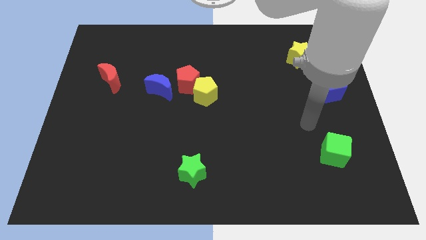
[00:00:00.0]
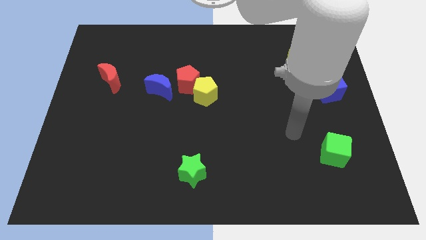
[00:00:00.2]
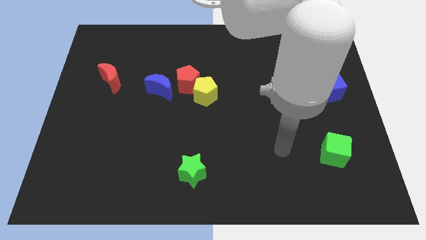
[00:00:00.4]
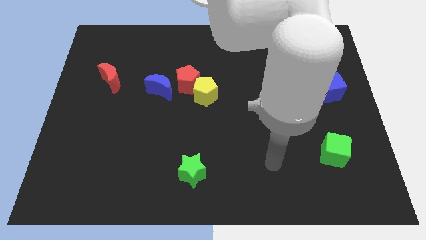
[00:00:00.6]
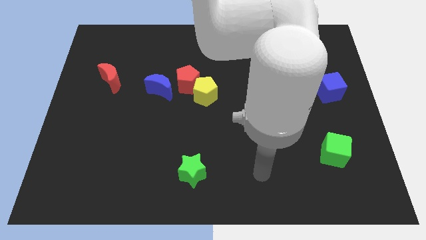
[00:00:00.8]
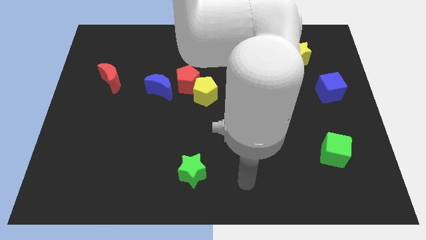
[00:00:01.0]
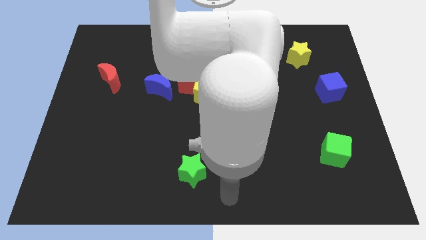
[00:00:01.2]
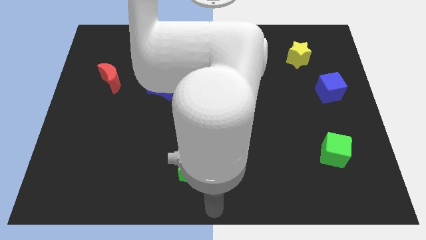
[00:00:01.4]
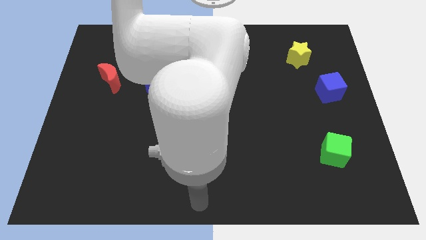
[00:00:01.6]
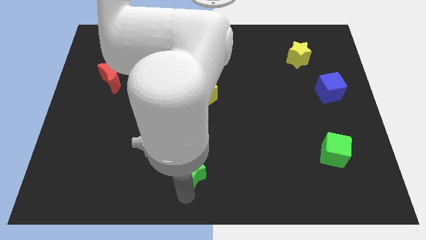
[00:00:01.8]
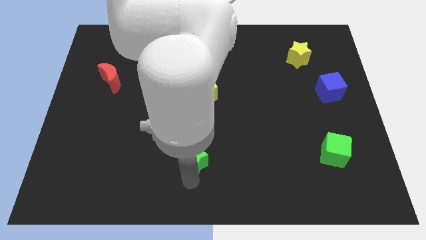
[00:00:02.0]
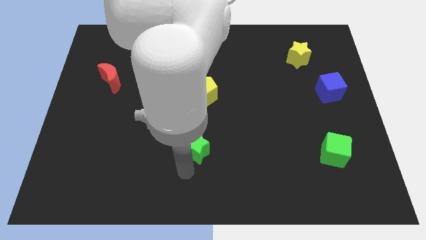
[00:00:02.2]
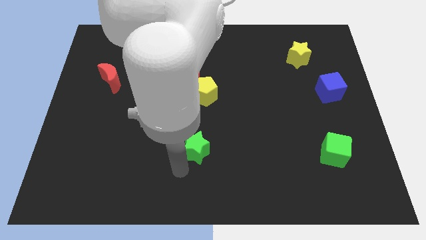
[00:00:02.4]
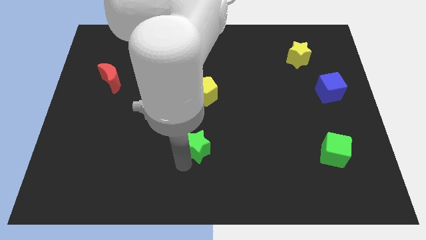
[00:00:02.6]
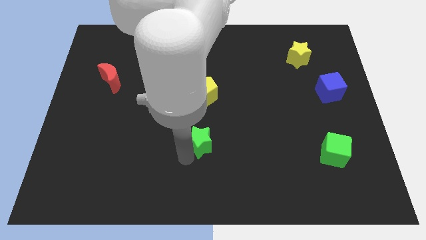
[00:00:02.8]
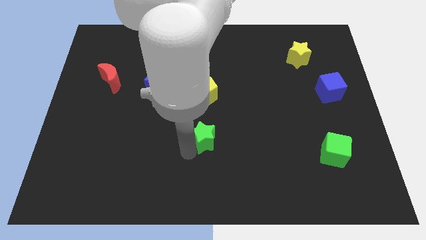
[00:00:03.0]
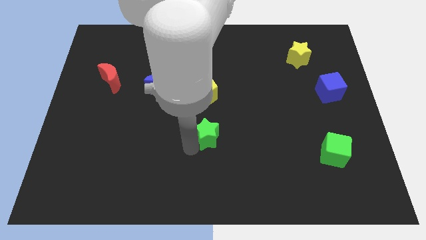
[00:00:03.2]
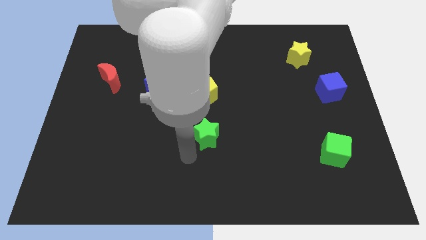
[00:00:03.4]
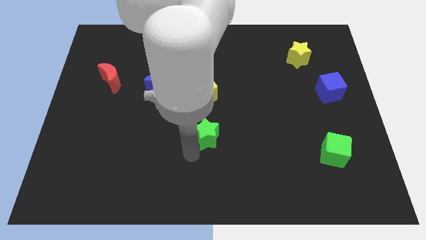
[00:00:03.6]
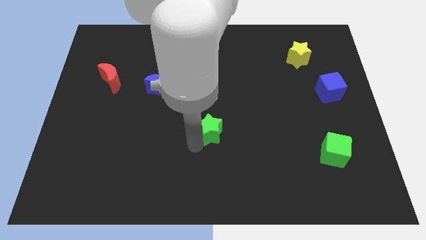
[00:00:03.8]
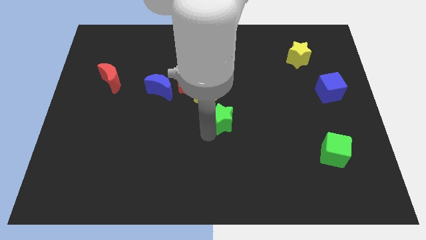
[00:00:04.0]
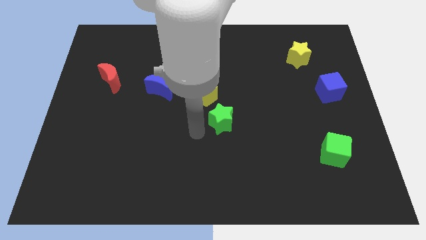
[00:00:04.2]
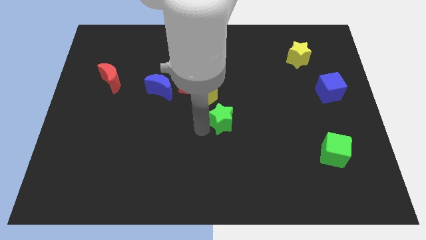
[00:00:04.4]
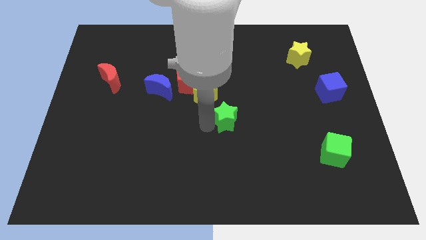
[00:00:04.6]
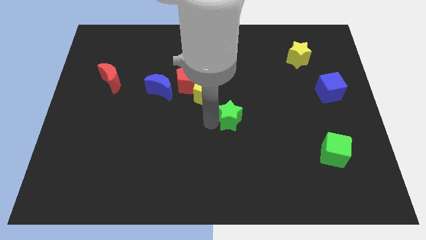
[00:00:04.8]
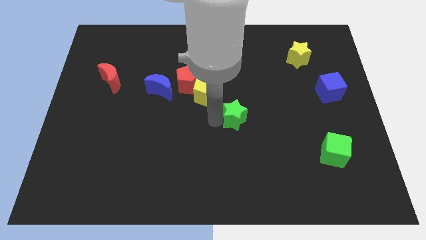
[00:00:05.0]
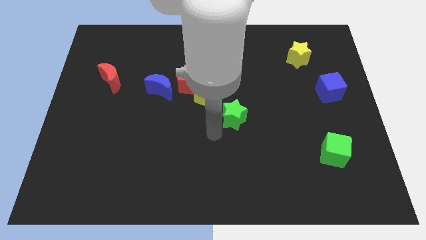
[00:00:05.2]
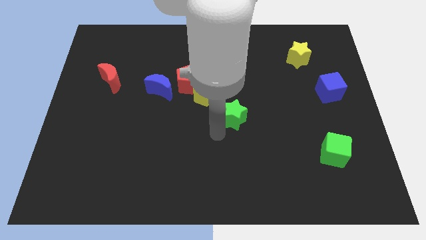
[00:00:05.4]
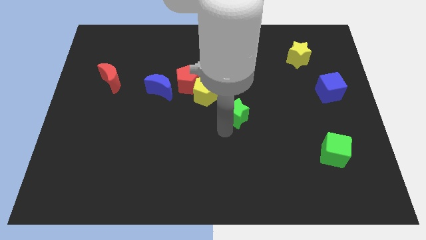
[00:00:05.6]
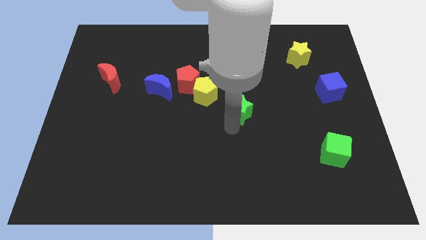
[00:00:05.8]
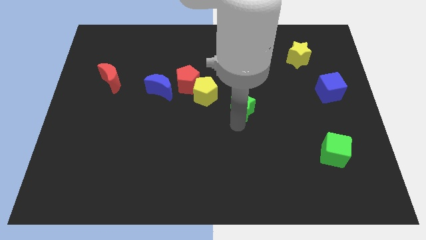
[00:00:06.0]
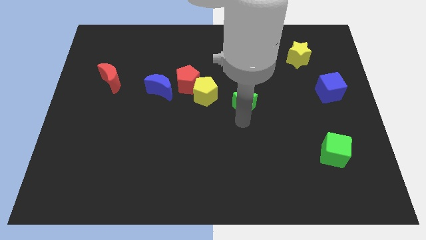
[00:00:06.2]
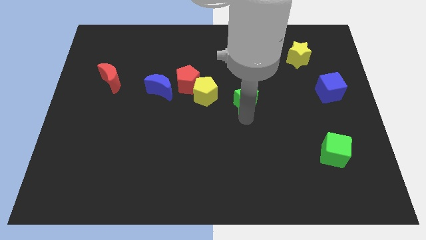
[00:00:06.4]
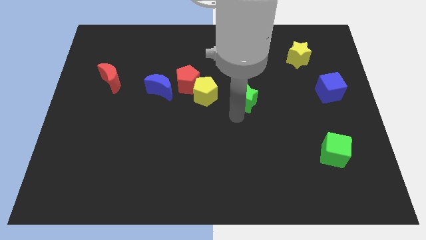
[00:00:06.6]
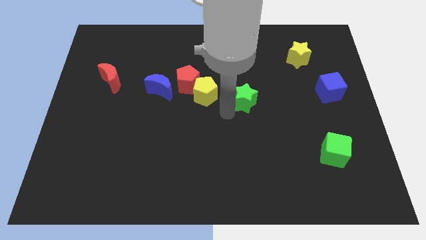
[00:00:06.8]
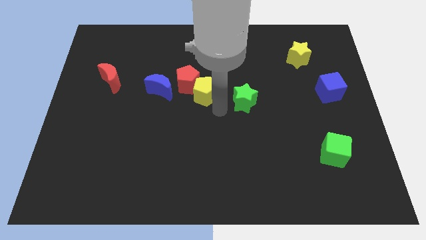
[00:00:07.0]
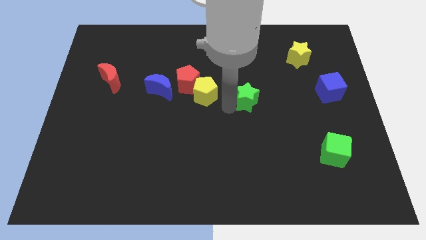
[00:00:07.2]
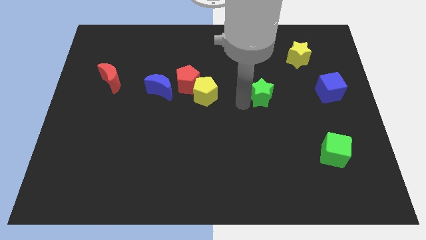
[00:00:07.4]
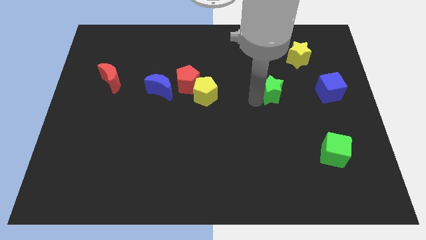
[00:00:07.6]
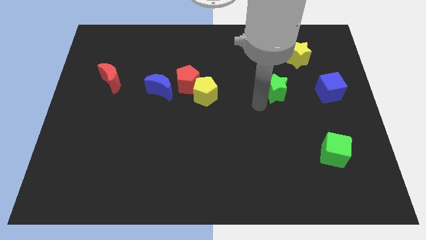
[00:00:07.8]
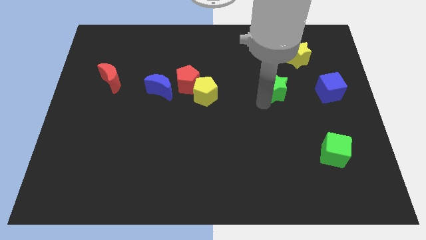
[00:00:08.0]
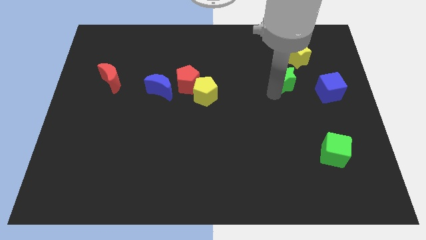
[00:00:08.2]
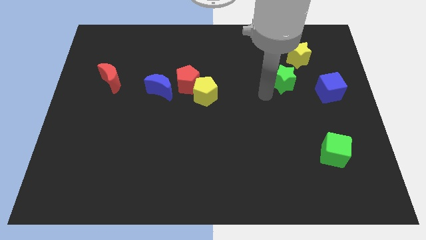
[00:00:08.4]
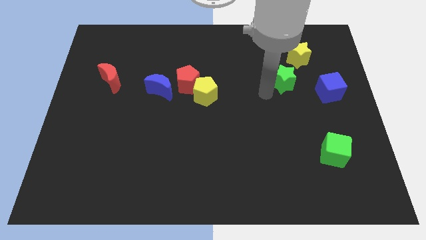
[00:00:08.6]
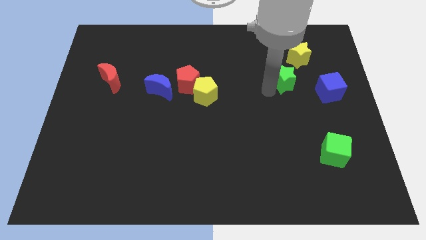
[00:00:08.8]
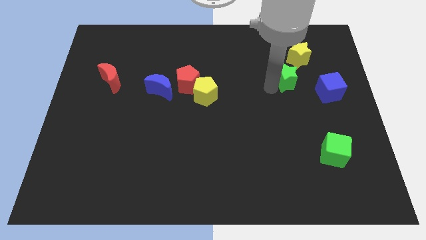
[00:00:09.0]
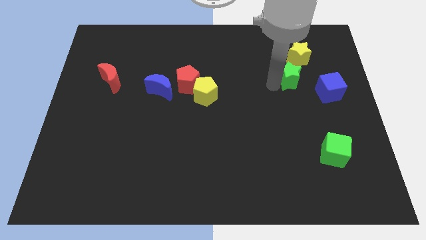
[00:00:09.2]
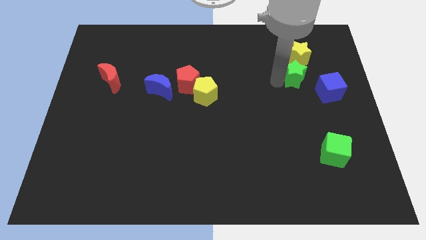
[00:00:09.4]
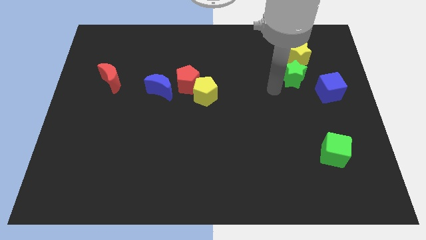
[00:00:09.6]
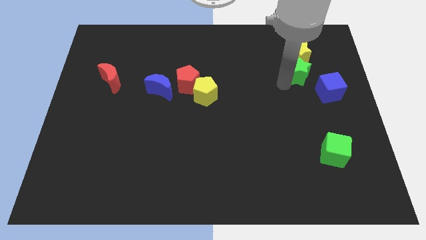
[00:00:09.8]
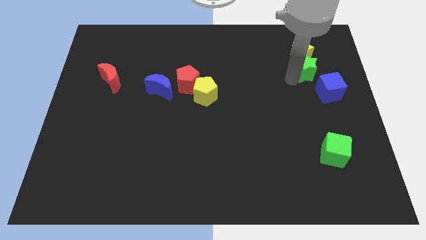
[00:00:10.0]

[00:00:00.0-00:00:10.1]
put the green star to the top side of the blue cube

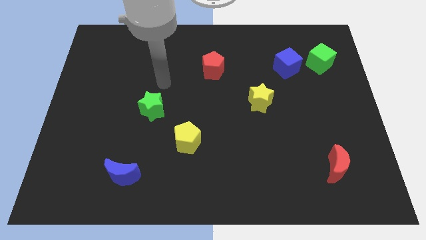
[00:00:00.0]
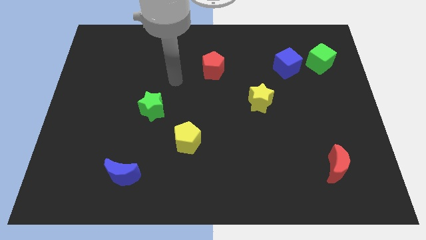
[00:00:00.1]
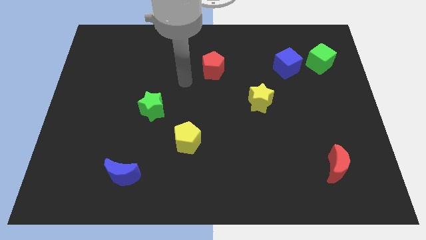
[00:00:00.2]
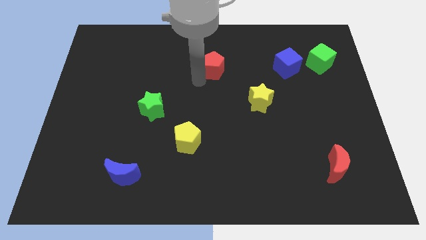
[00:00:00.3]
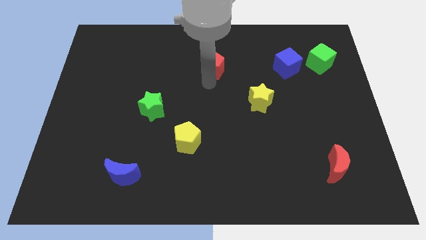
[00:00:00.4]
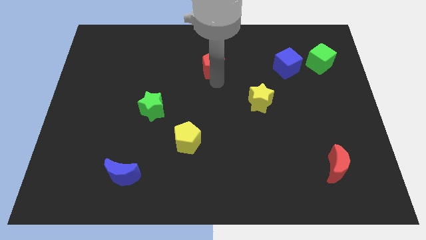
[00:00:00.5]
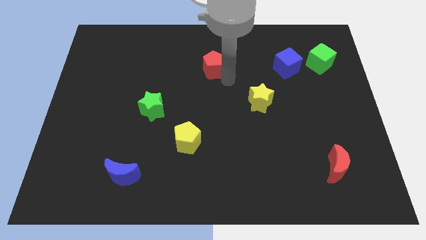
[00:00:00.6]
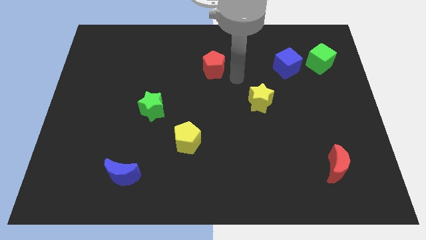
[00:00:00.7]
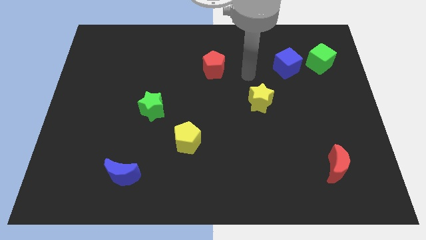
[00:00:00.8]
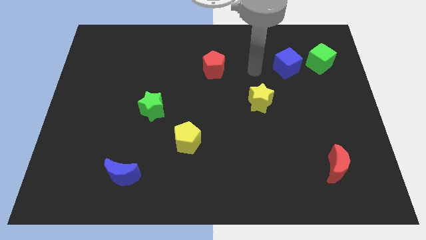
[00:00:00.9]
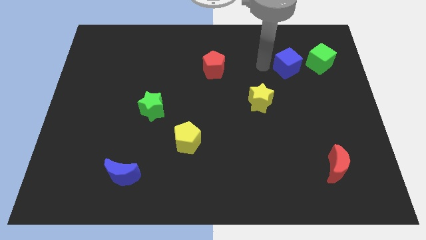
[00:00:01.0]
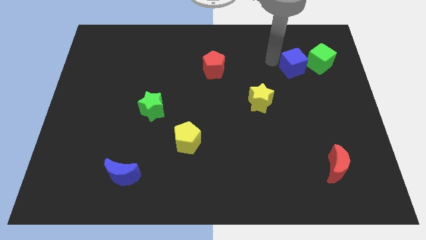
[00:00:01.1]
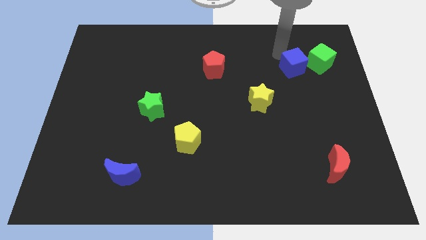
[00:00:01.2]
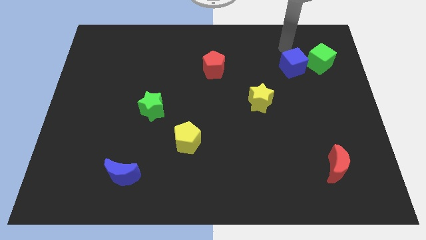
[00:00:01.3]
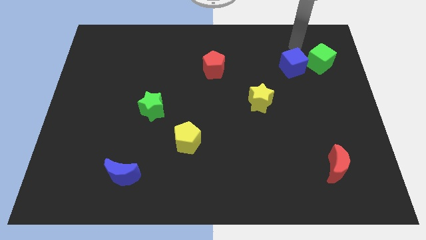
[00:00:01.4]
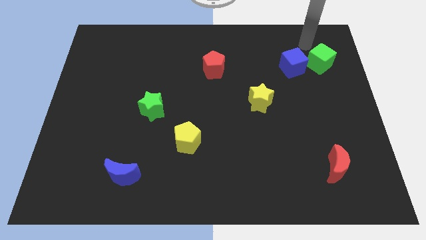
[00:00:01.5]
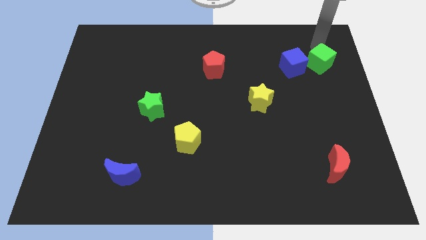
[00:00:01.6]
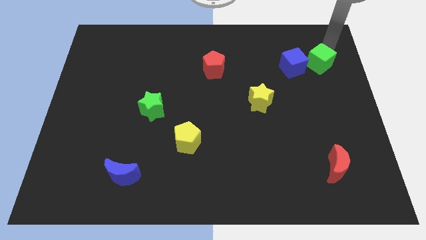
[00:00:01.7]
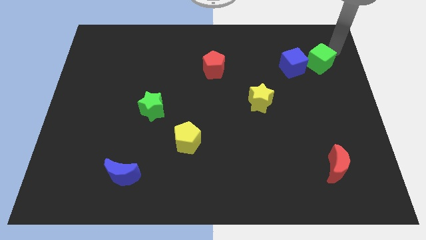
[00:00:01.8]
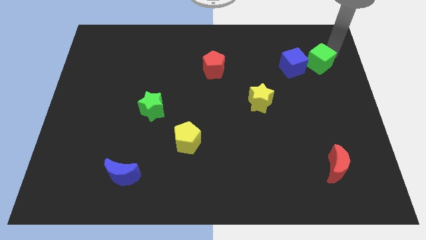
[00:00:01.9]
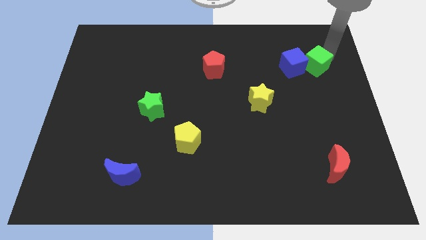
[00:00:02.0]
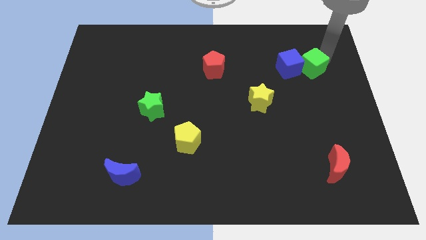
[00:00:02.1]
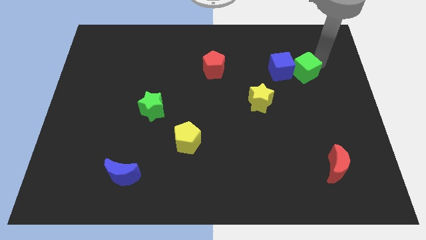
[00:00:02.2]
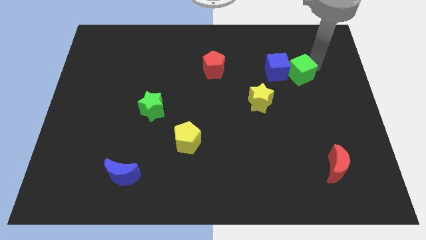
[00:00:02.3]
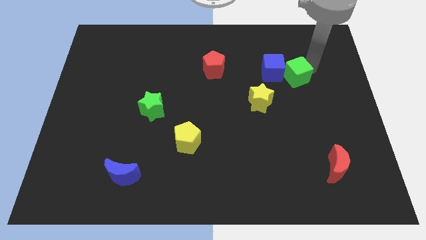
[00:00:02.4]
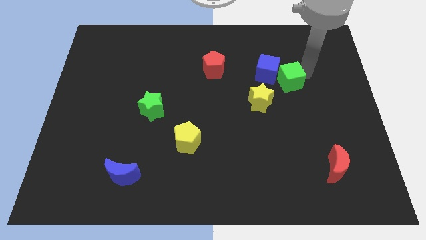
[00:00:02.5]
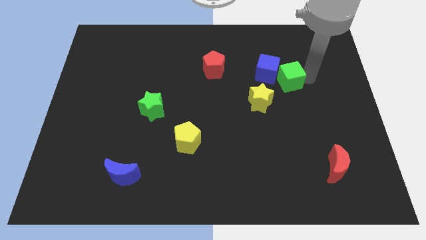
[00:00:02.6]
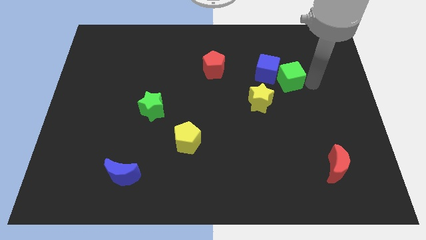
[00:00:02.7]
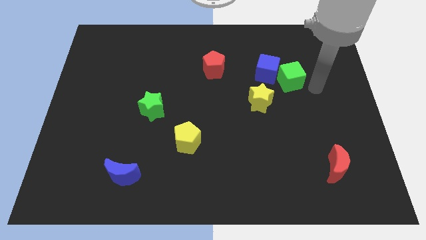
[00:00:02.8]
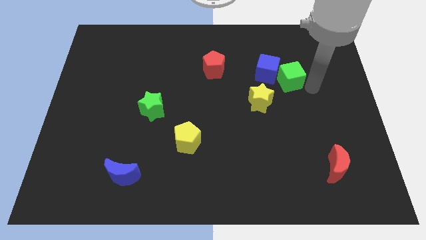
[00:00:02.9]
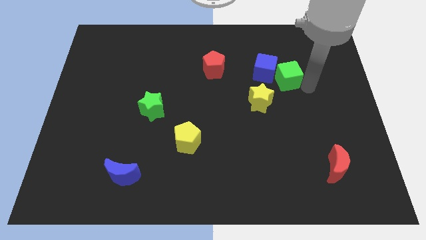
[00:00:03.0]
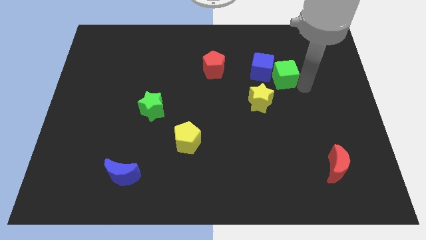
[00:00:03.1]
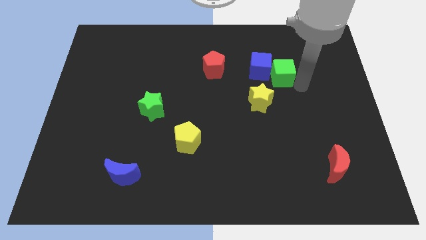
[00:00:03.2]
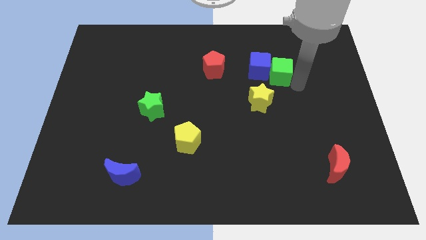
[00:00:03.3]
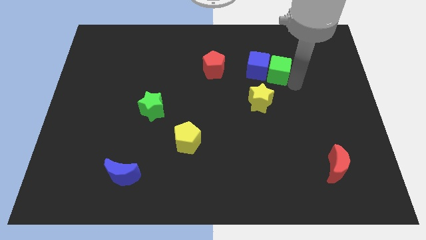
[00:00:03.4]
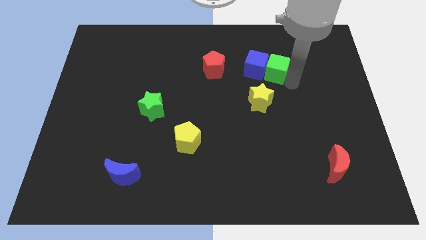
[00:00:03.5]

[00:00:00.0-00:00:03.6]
move the green cube to the top side of the yellow star

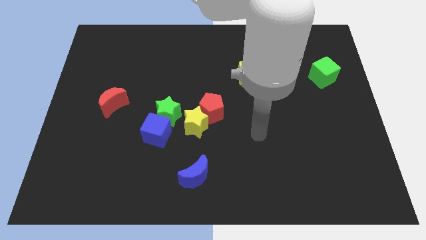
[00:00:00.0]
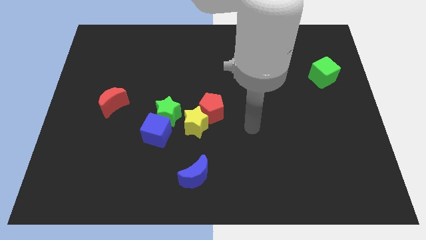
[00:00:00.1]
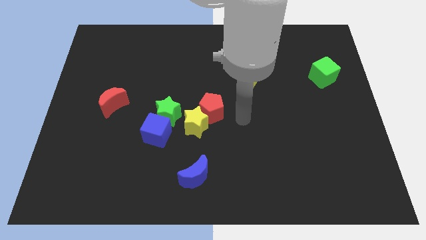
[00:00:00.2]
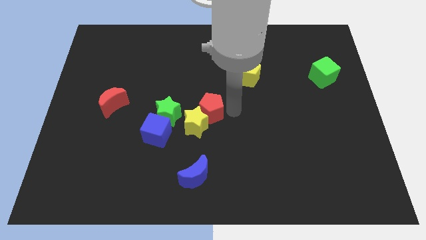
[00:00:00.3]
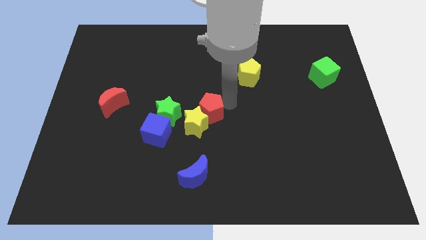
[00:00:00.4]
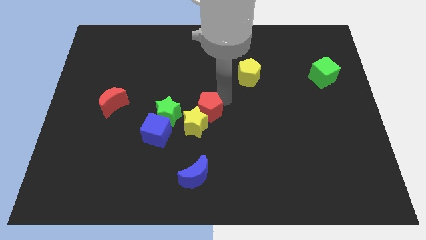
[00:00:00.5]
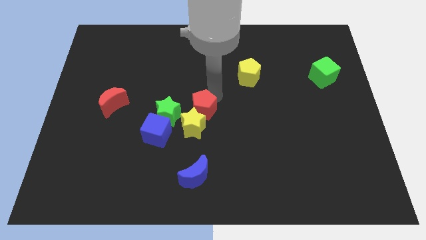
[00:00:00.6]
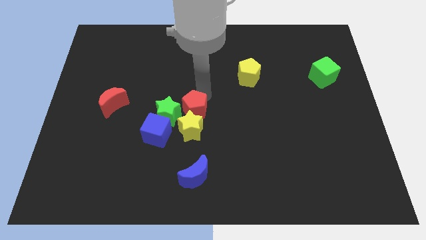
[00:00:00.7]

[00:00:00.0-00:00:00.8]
move the yellow star diagonally down and to the right of the red pentagon
